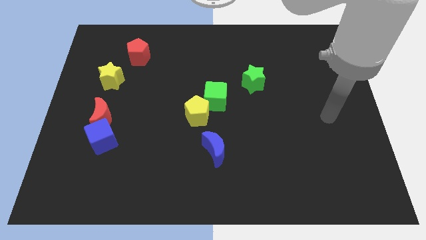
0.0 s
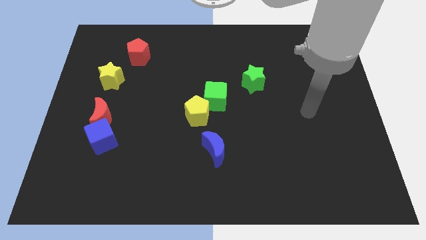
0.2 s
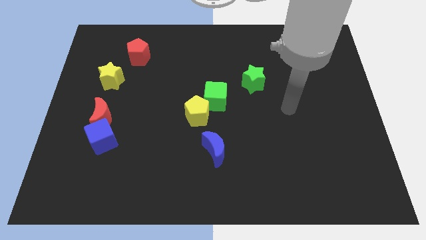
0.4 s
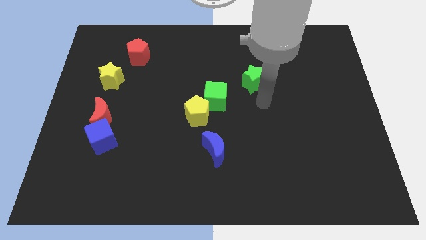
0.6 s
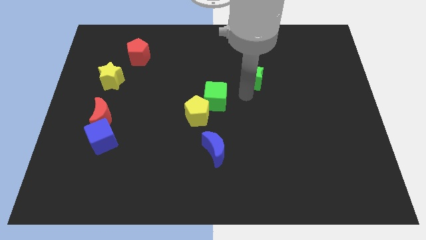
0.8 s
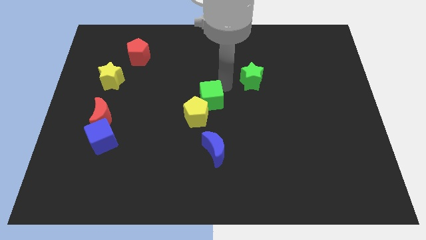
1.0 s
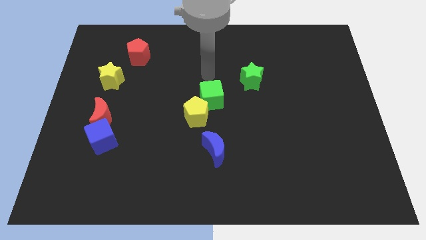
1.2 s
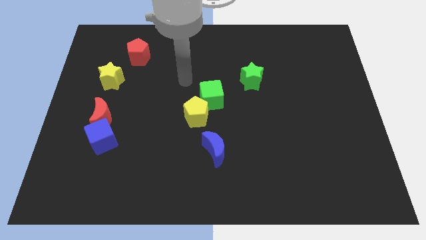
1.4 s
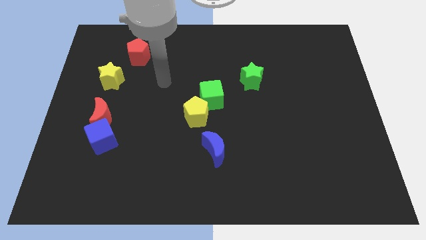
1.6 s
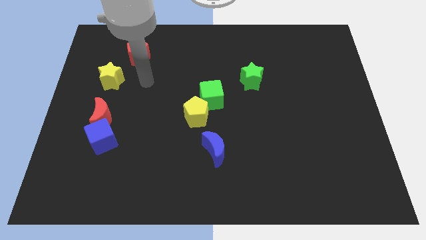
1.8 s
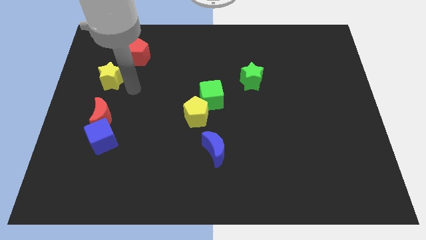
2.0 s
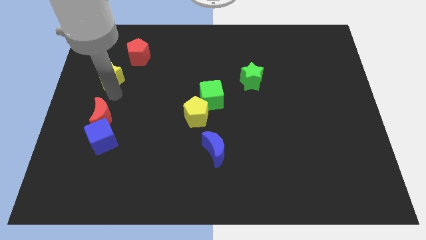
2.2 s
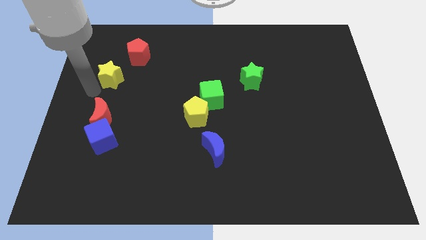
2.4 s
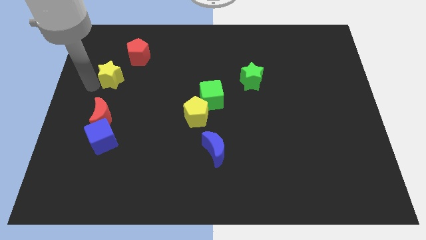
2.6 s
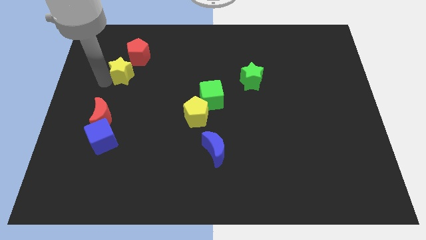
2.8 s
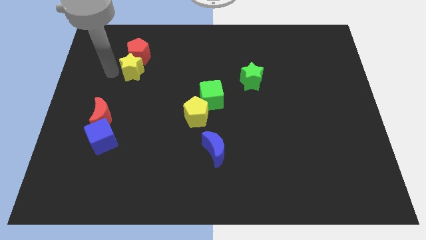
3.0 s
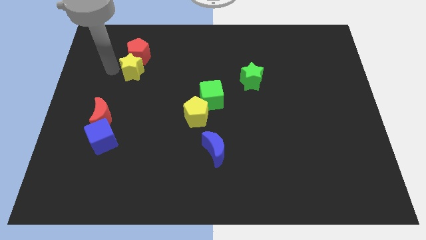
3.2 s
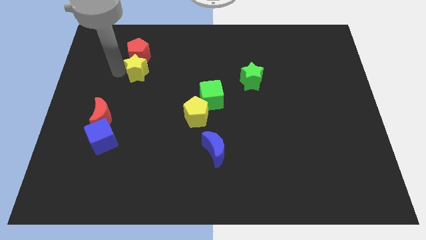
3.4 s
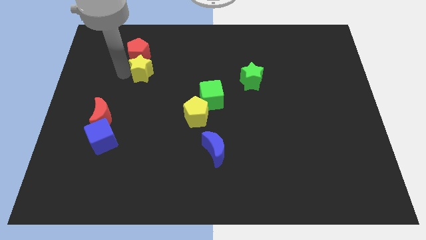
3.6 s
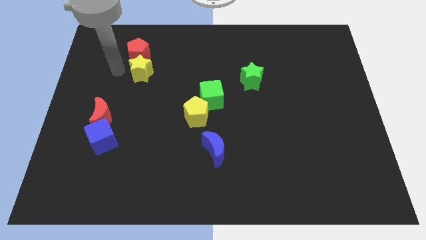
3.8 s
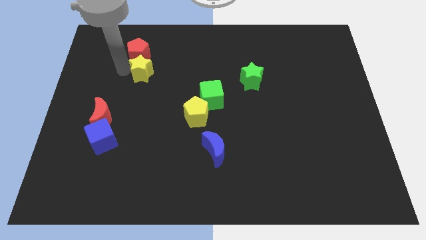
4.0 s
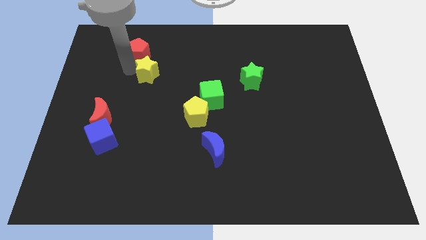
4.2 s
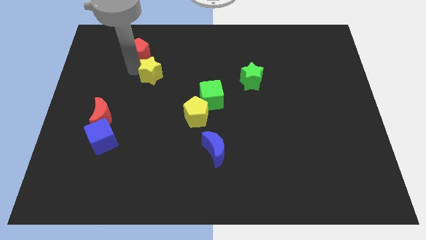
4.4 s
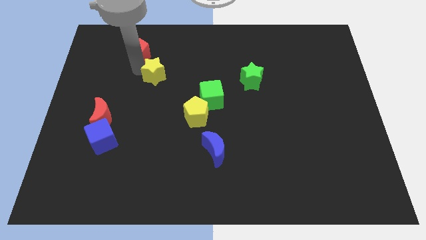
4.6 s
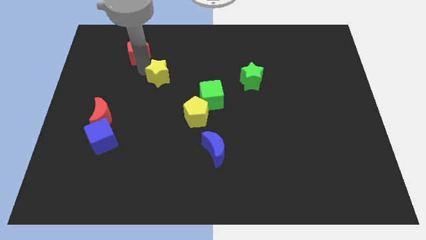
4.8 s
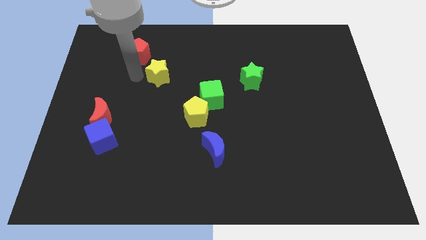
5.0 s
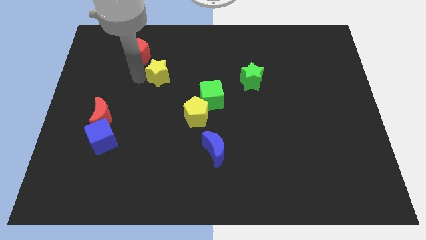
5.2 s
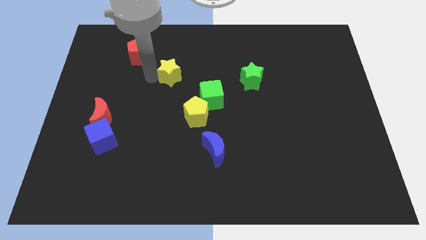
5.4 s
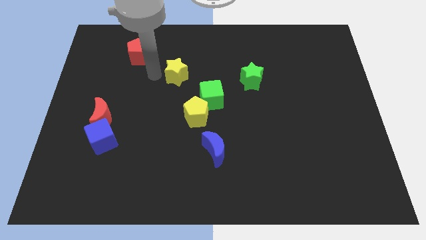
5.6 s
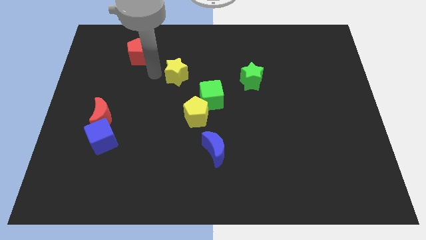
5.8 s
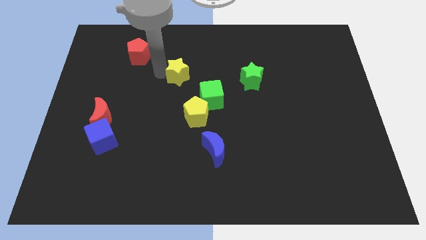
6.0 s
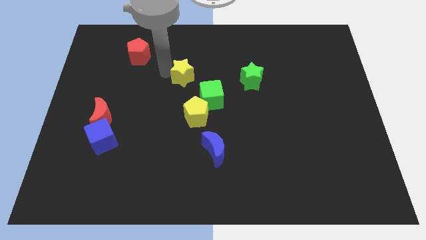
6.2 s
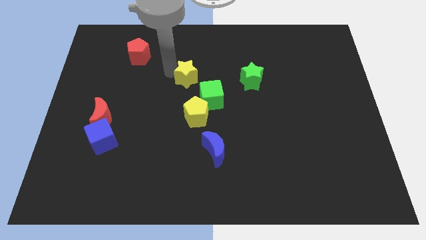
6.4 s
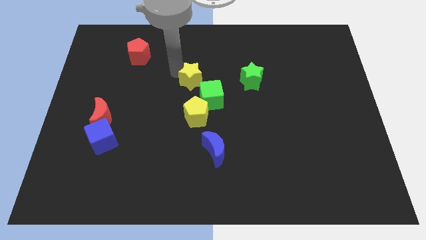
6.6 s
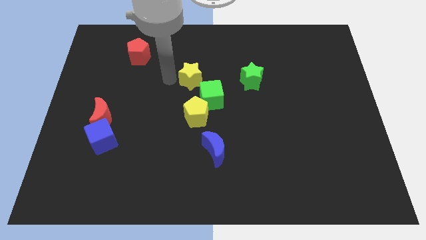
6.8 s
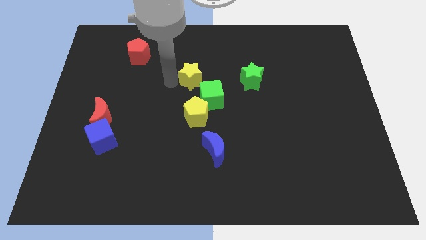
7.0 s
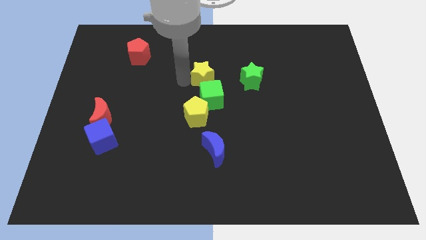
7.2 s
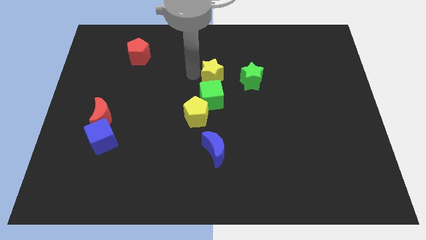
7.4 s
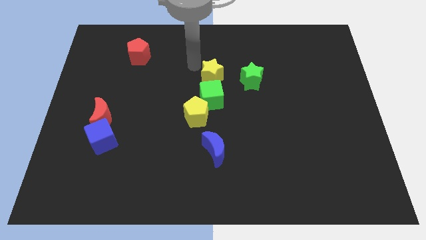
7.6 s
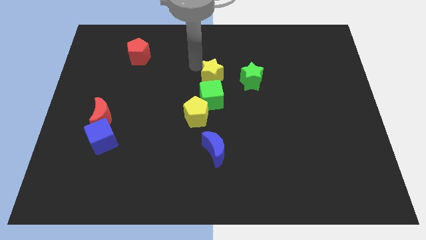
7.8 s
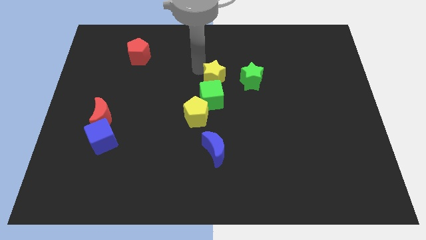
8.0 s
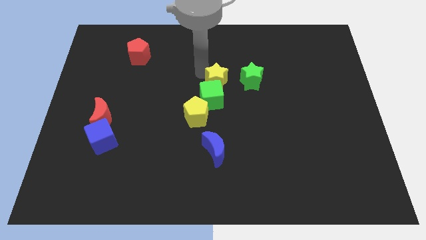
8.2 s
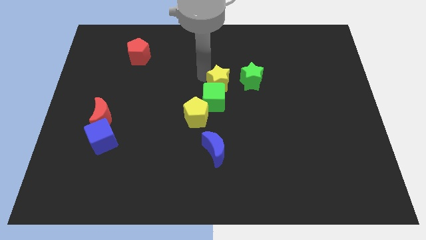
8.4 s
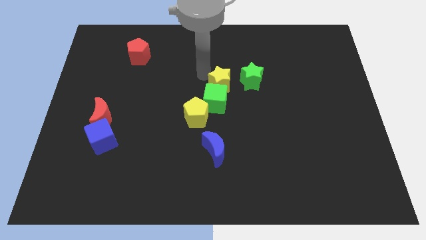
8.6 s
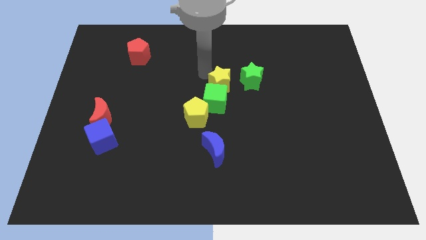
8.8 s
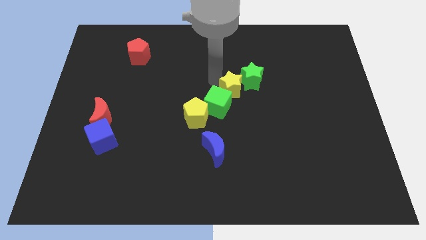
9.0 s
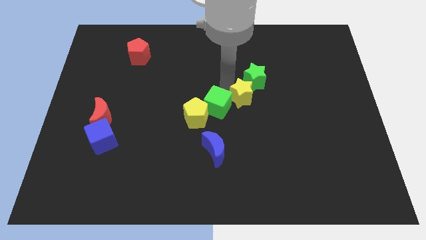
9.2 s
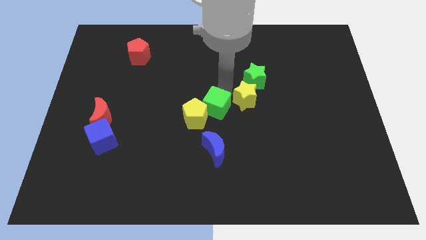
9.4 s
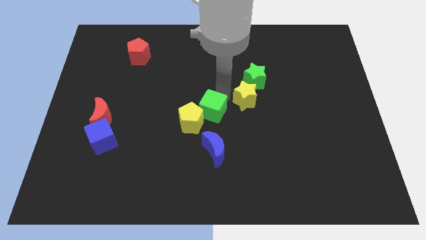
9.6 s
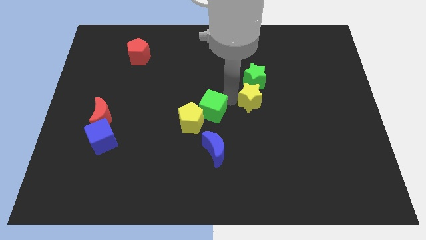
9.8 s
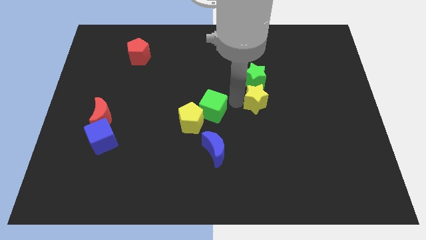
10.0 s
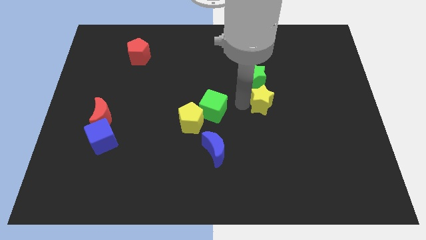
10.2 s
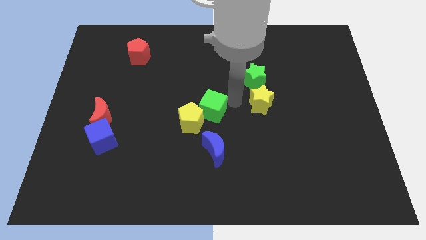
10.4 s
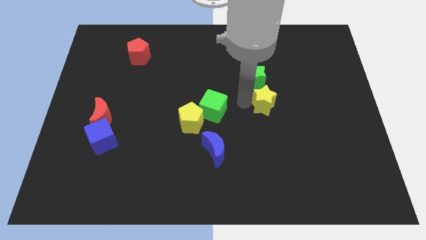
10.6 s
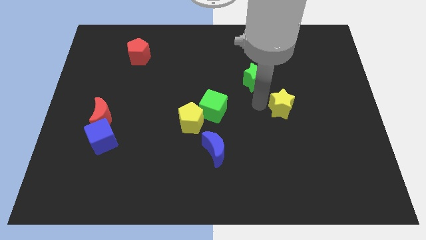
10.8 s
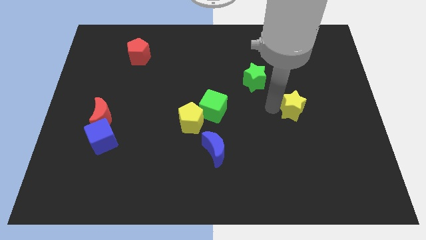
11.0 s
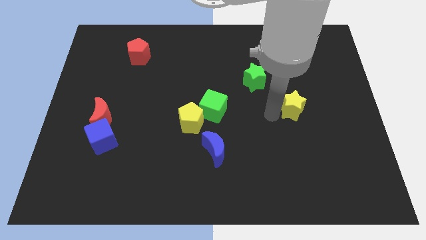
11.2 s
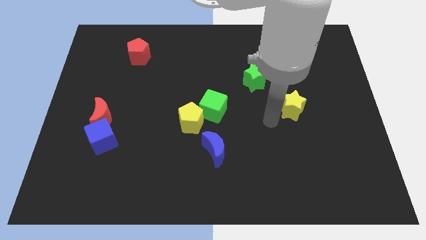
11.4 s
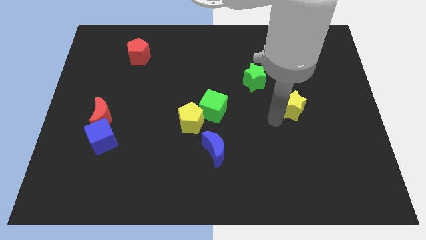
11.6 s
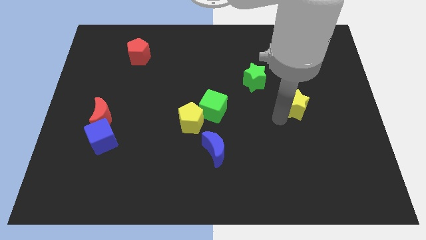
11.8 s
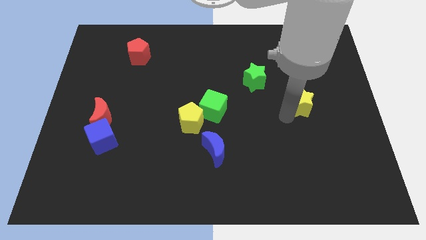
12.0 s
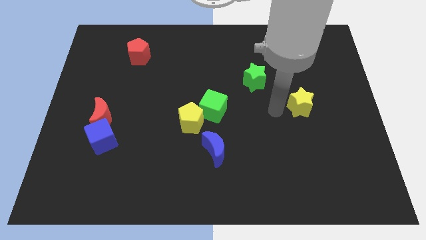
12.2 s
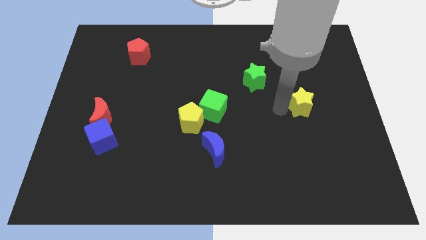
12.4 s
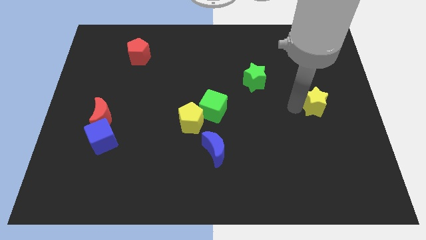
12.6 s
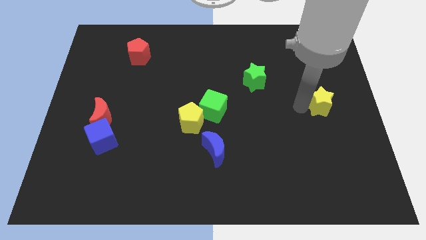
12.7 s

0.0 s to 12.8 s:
slide the yellow star to the right side
